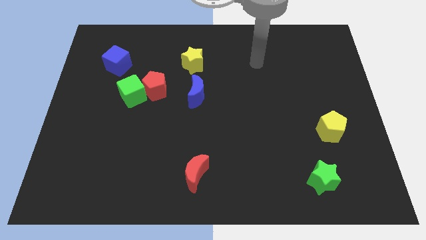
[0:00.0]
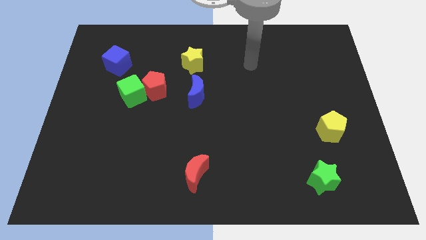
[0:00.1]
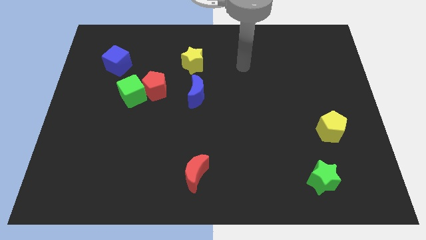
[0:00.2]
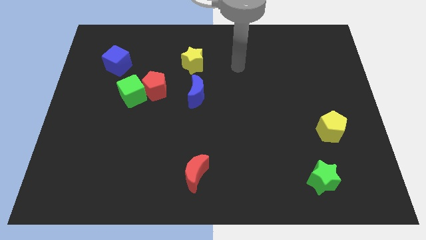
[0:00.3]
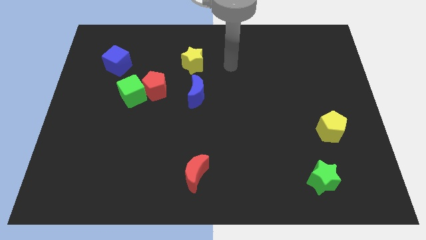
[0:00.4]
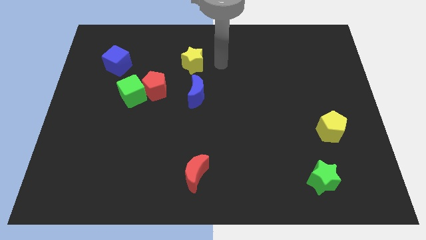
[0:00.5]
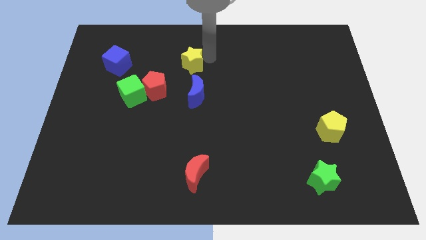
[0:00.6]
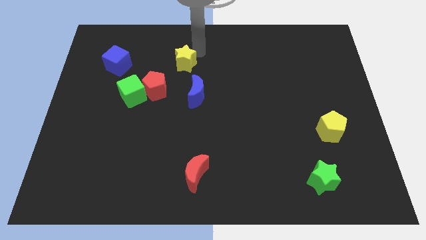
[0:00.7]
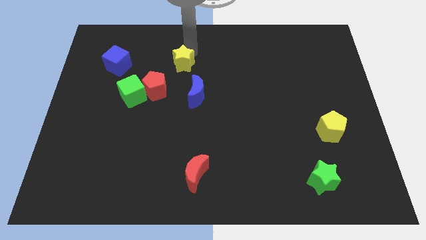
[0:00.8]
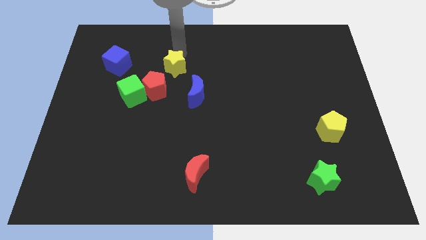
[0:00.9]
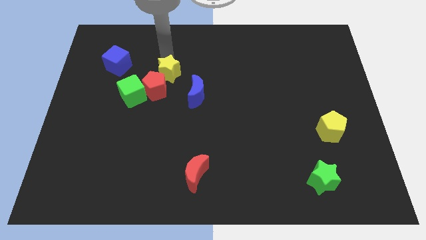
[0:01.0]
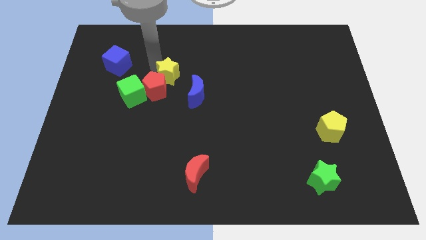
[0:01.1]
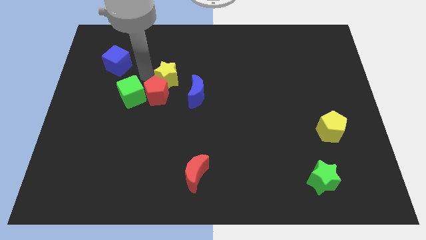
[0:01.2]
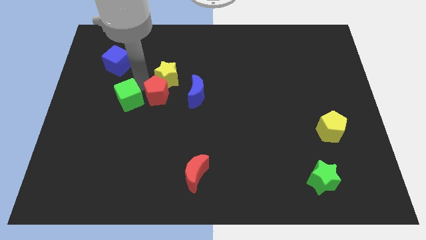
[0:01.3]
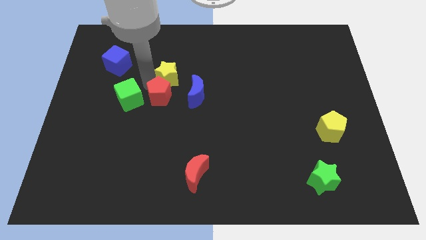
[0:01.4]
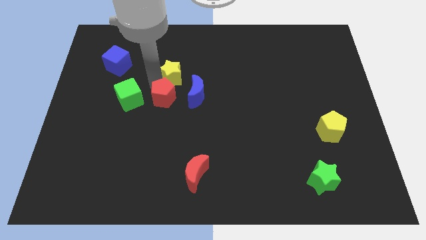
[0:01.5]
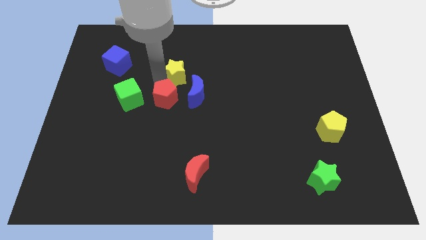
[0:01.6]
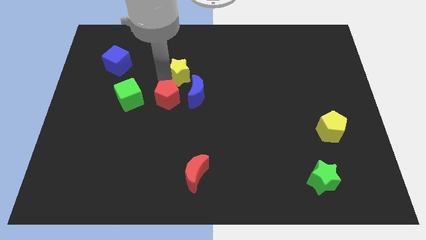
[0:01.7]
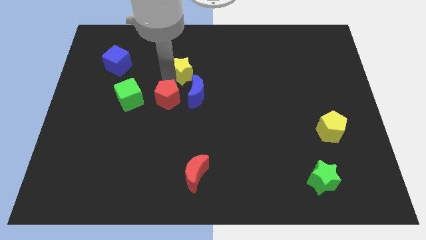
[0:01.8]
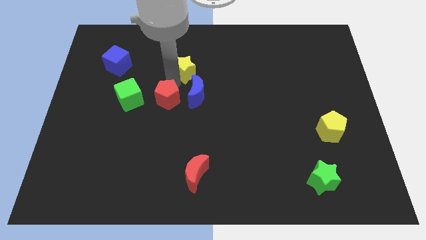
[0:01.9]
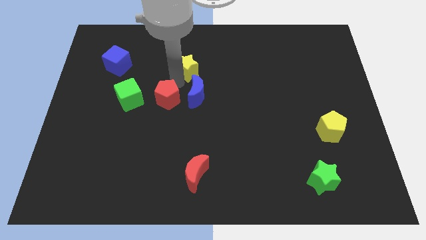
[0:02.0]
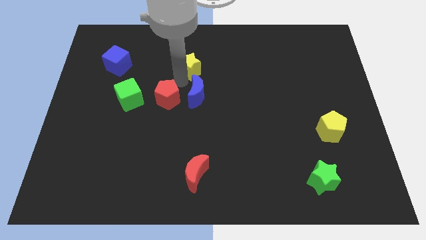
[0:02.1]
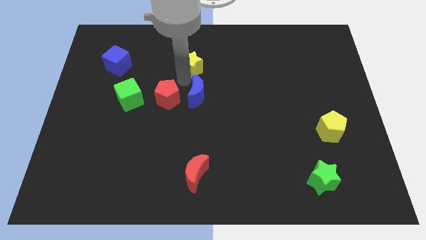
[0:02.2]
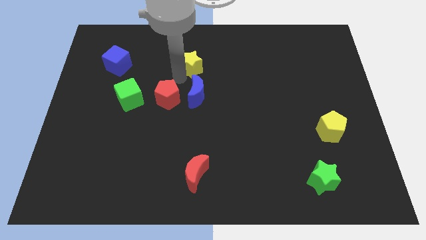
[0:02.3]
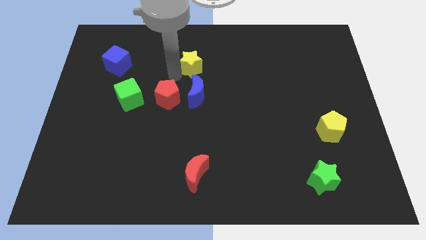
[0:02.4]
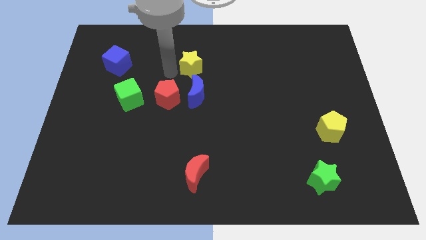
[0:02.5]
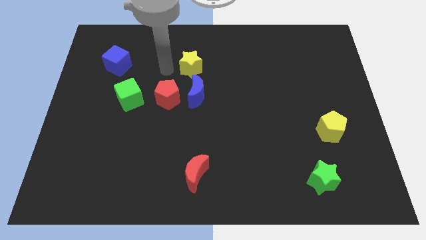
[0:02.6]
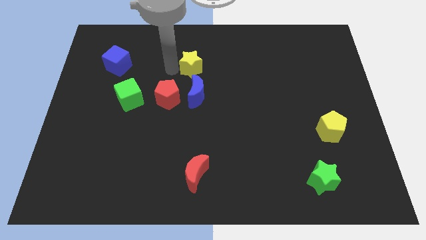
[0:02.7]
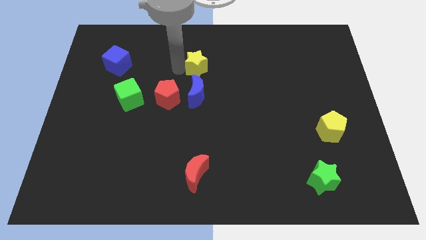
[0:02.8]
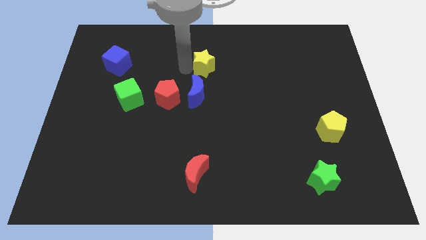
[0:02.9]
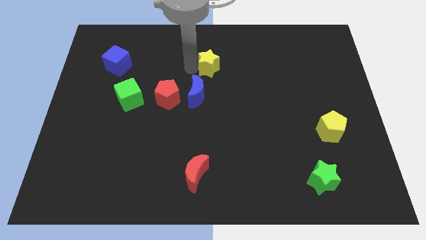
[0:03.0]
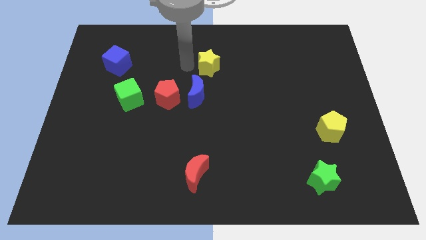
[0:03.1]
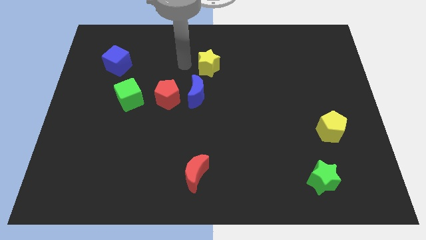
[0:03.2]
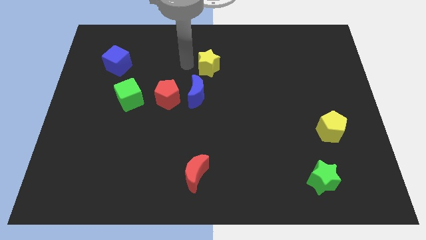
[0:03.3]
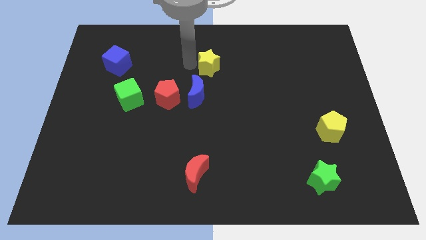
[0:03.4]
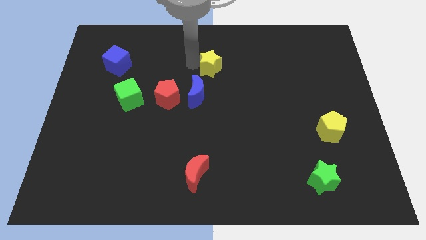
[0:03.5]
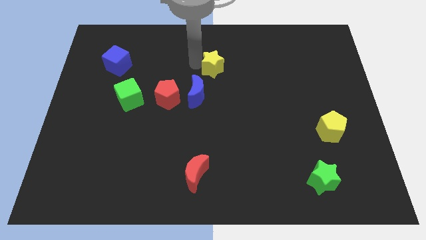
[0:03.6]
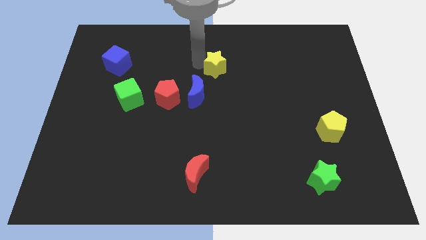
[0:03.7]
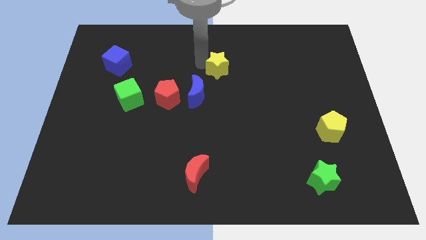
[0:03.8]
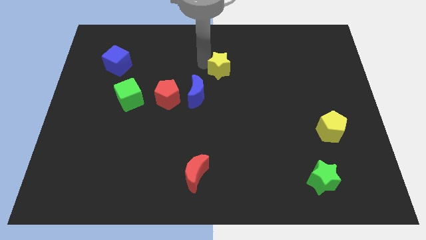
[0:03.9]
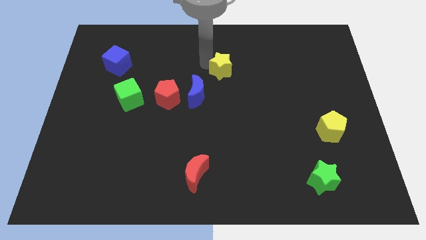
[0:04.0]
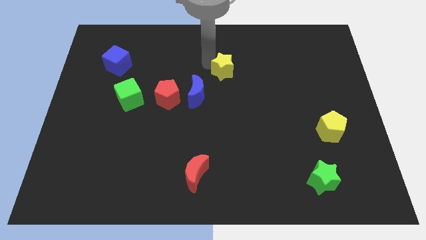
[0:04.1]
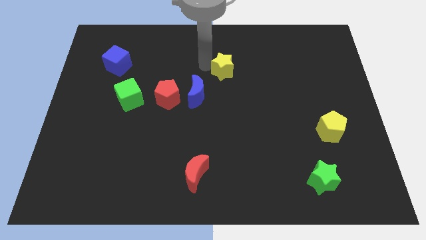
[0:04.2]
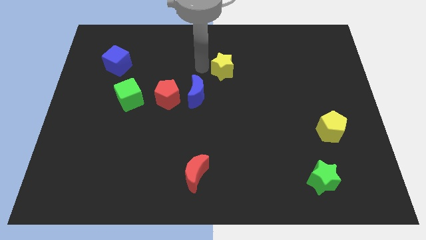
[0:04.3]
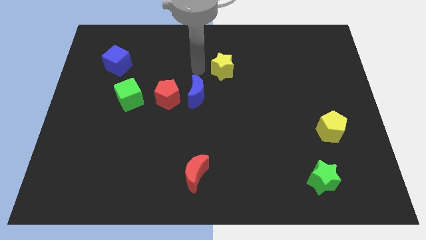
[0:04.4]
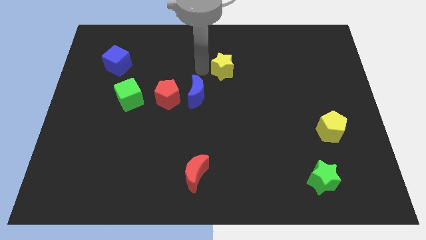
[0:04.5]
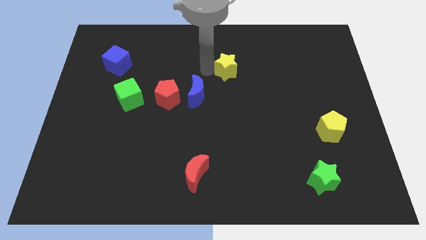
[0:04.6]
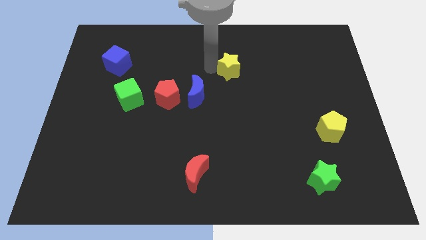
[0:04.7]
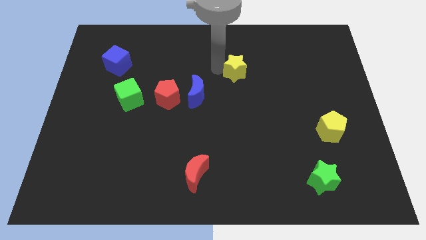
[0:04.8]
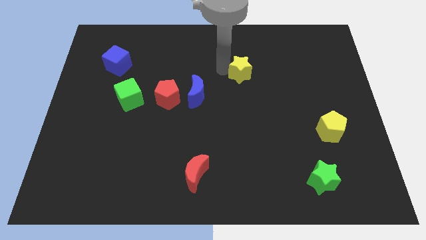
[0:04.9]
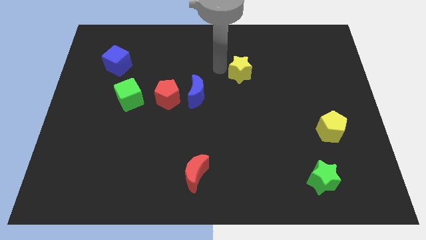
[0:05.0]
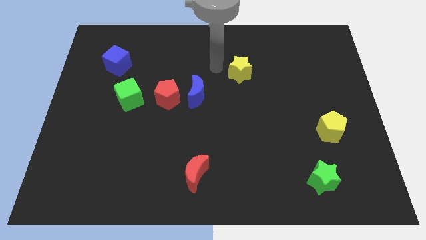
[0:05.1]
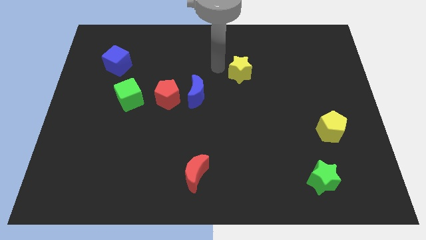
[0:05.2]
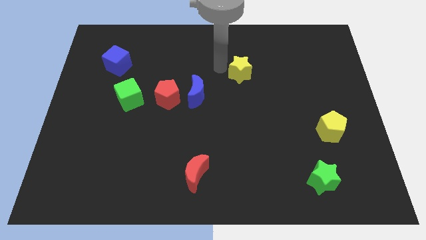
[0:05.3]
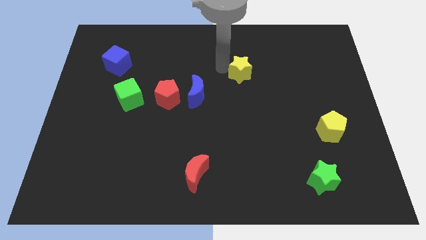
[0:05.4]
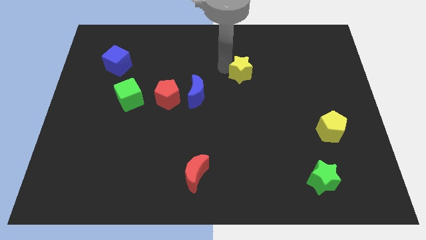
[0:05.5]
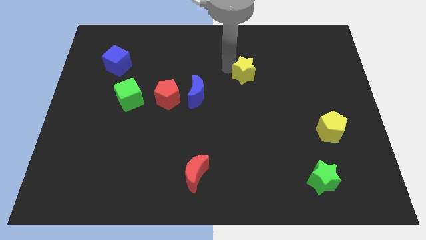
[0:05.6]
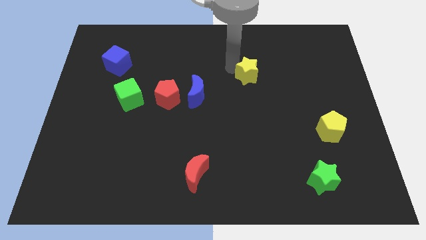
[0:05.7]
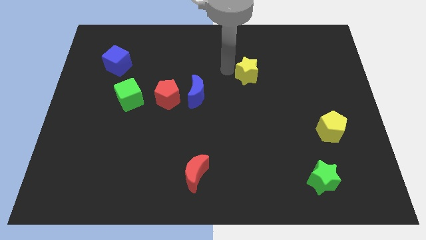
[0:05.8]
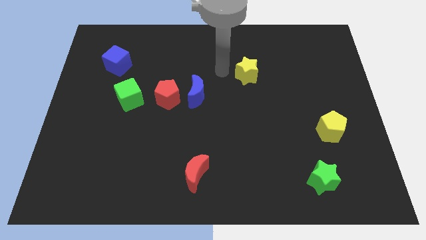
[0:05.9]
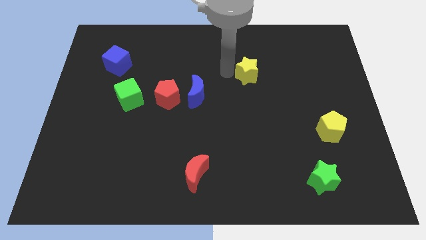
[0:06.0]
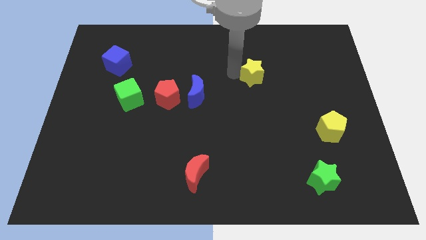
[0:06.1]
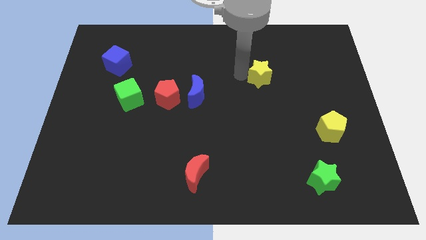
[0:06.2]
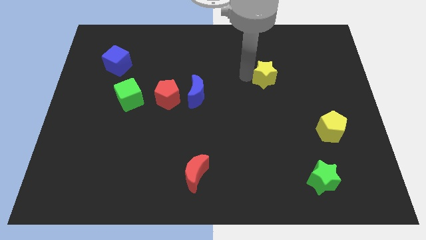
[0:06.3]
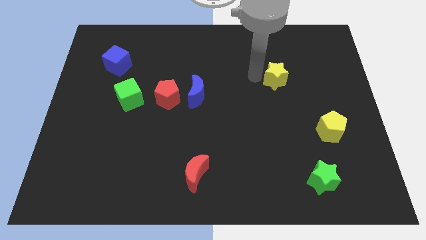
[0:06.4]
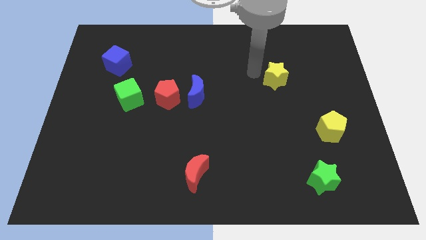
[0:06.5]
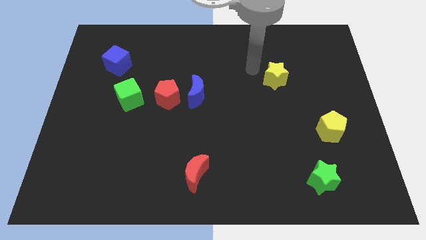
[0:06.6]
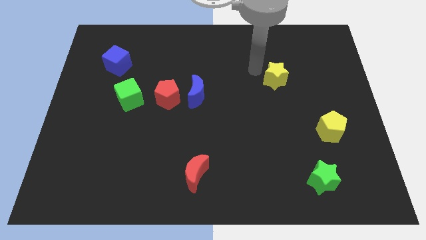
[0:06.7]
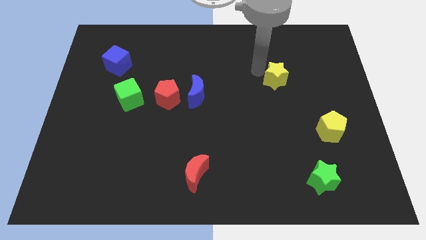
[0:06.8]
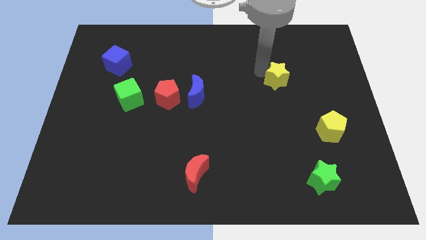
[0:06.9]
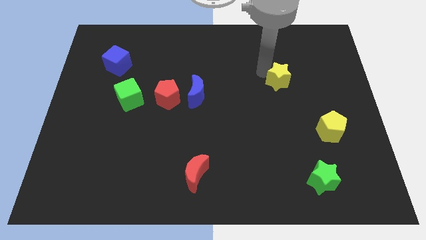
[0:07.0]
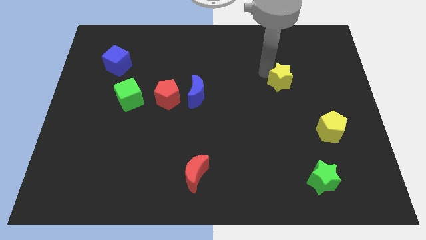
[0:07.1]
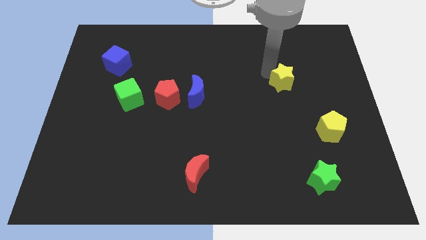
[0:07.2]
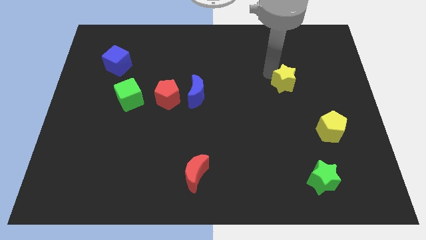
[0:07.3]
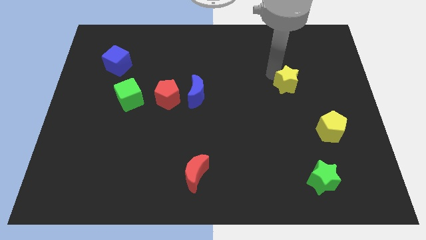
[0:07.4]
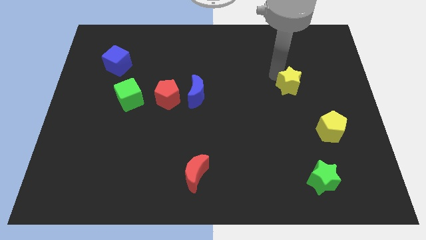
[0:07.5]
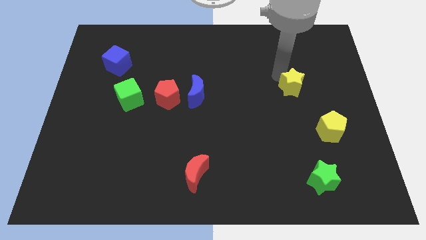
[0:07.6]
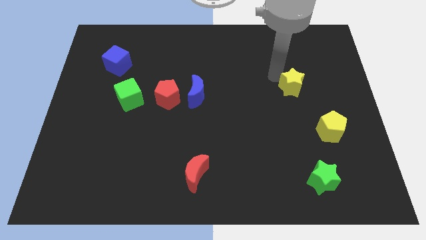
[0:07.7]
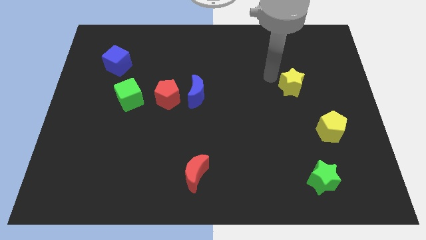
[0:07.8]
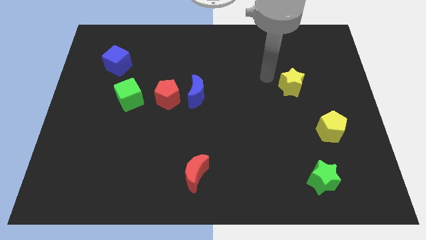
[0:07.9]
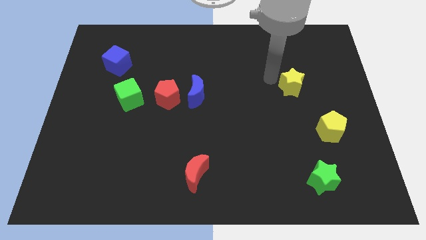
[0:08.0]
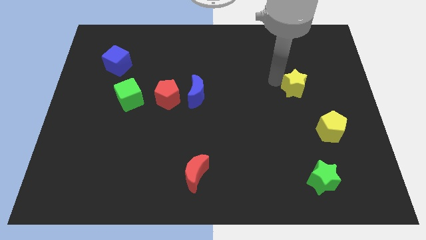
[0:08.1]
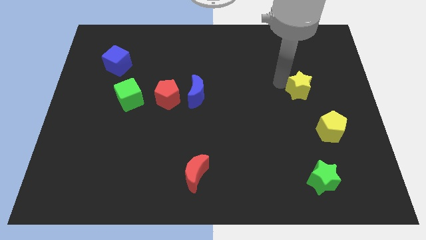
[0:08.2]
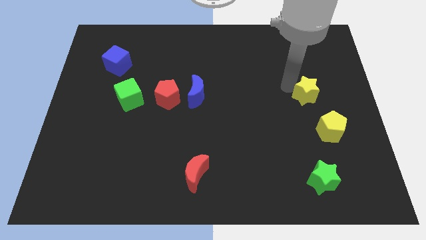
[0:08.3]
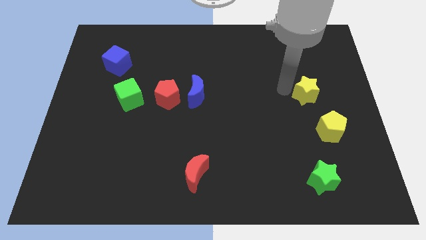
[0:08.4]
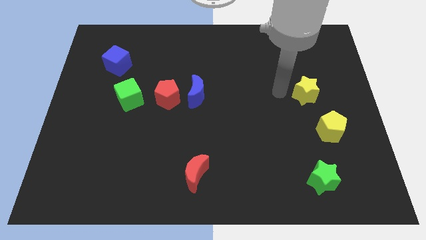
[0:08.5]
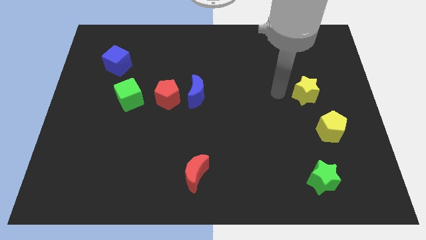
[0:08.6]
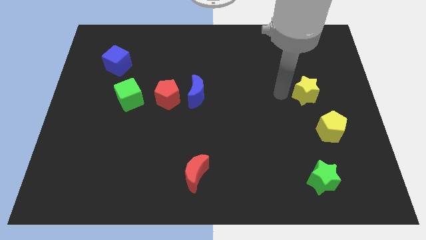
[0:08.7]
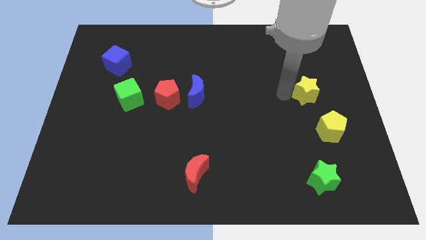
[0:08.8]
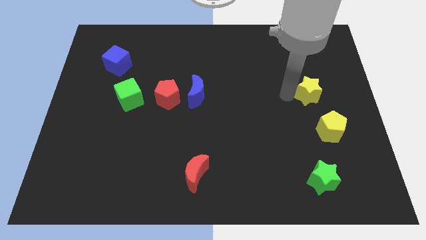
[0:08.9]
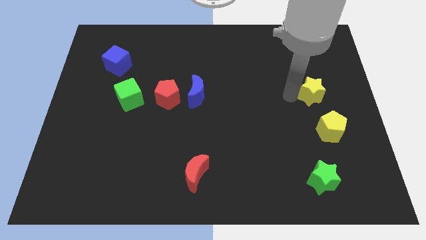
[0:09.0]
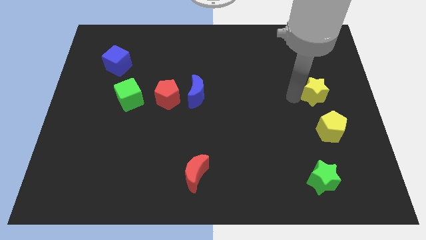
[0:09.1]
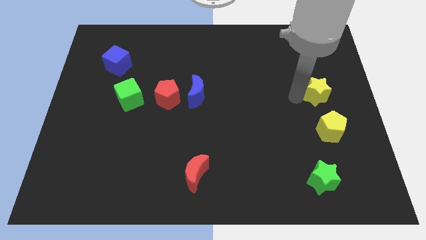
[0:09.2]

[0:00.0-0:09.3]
put the yellow star to the right side of the board
